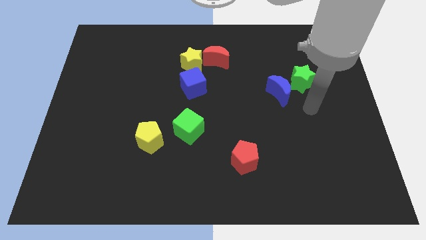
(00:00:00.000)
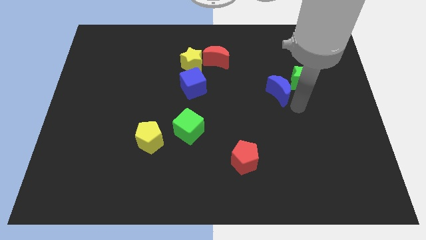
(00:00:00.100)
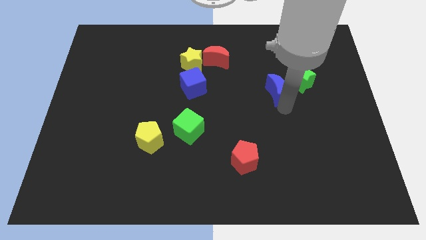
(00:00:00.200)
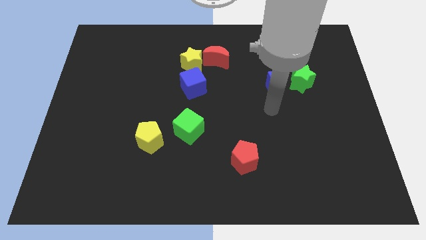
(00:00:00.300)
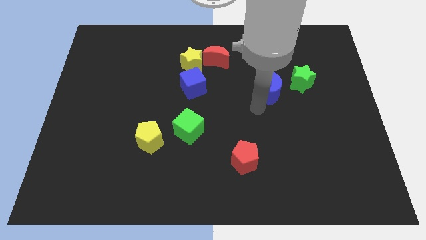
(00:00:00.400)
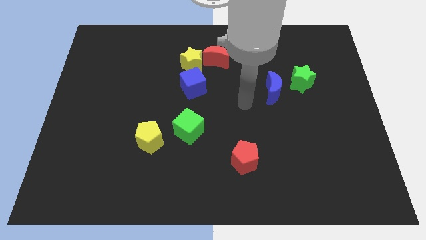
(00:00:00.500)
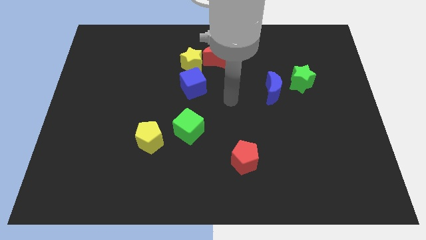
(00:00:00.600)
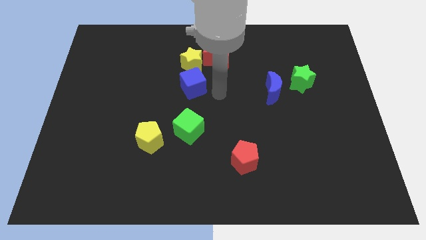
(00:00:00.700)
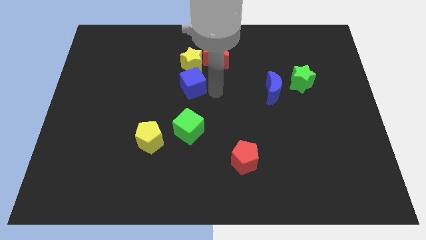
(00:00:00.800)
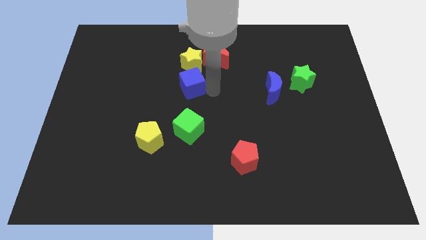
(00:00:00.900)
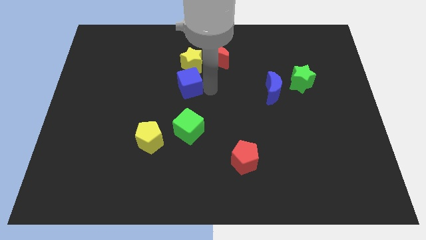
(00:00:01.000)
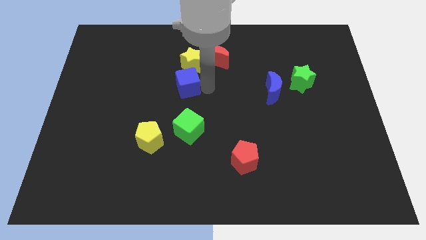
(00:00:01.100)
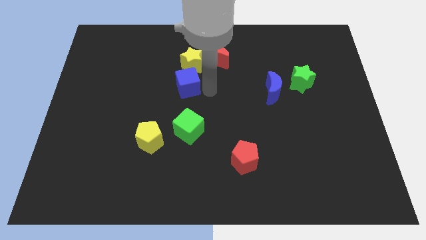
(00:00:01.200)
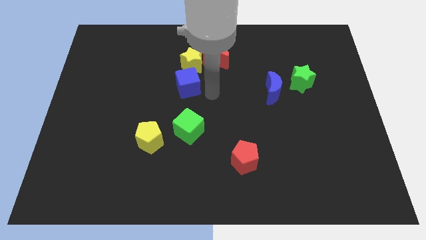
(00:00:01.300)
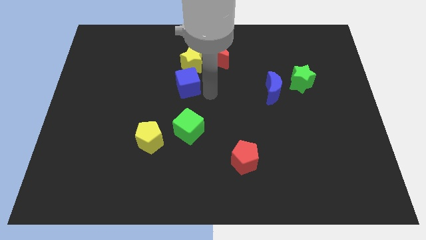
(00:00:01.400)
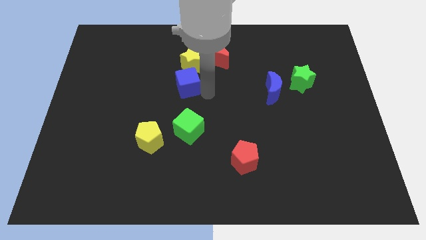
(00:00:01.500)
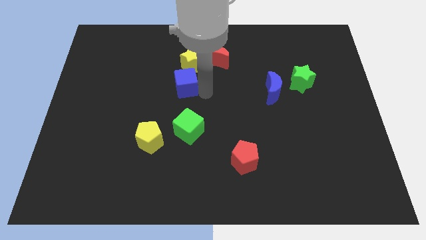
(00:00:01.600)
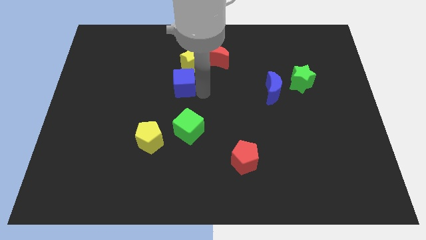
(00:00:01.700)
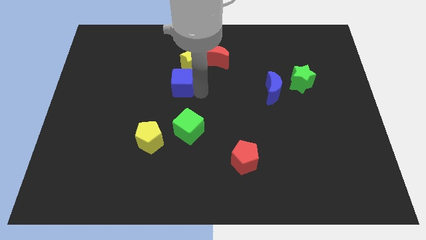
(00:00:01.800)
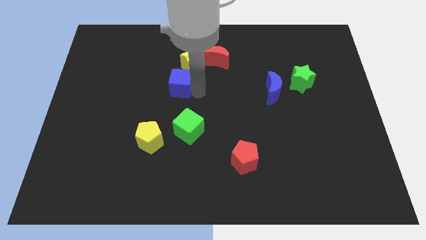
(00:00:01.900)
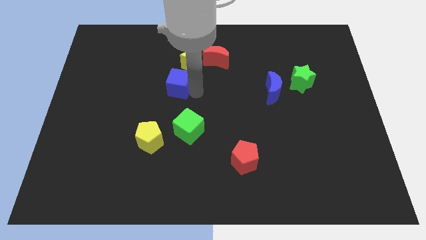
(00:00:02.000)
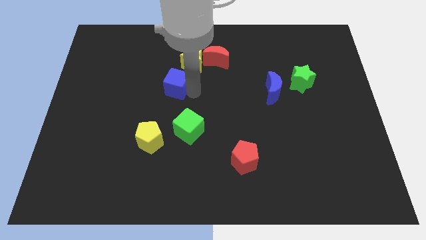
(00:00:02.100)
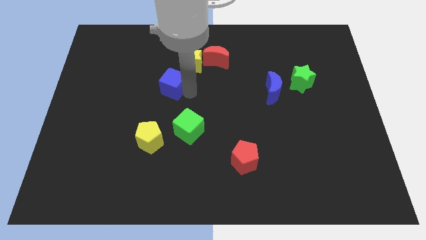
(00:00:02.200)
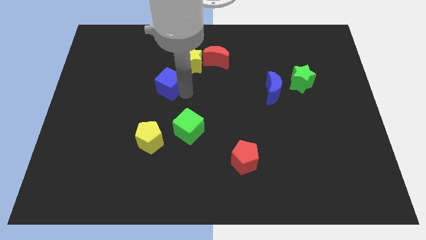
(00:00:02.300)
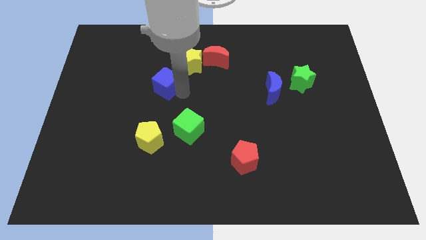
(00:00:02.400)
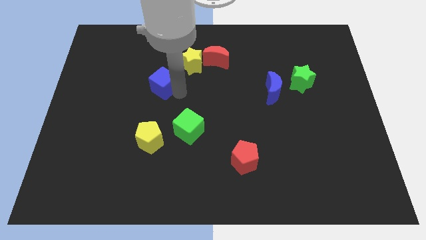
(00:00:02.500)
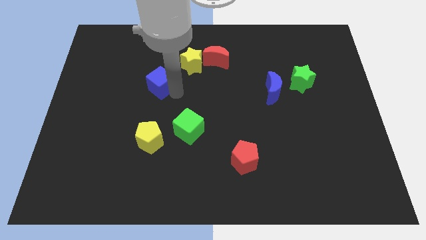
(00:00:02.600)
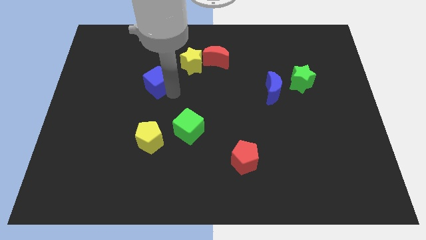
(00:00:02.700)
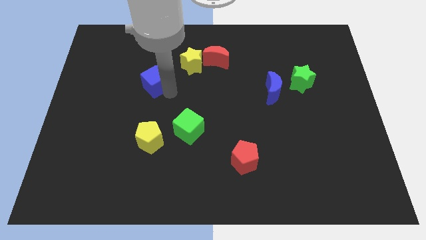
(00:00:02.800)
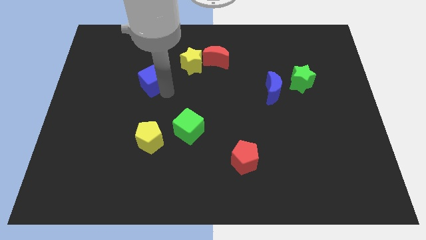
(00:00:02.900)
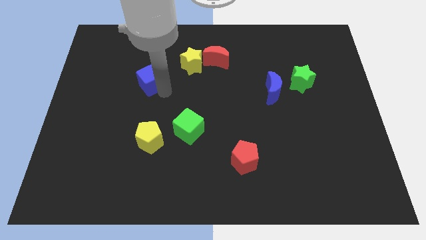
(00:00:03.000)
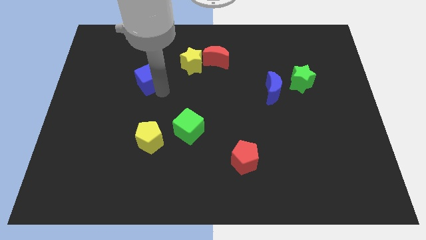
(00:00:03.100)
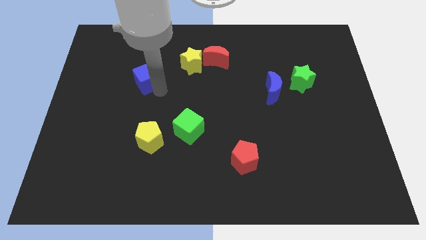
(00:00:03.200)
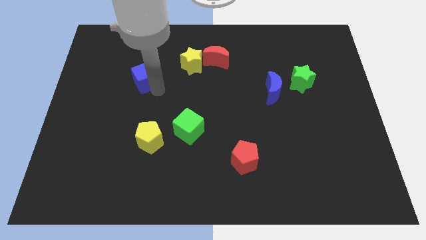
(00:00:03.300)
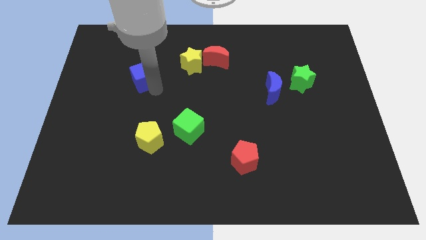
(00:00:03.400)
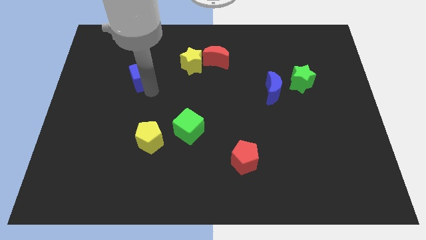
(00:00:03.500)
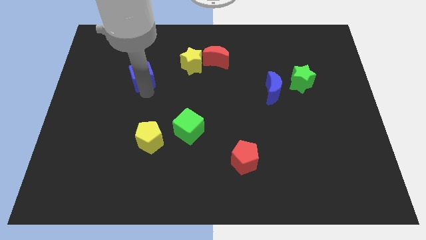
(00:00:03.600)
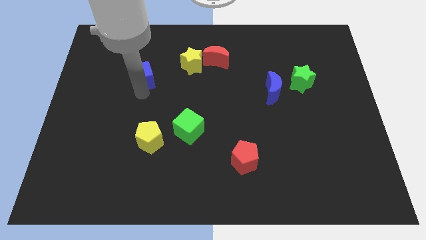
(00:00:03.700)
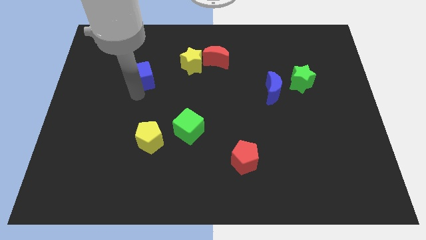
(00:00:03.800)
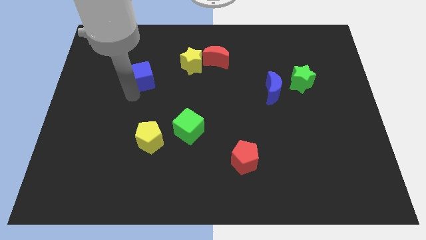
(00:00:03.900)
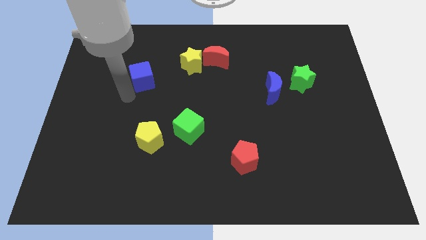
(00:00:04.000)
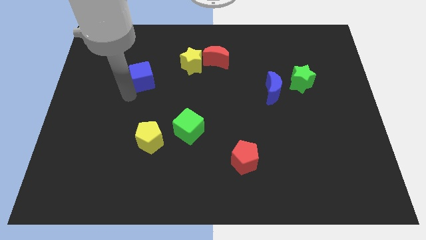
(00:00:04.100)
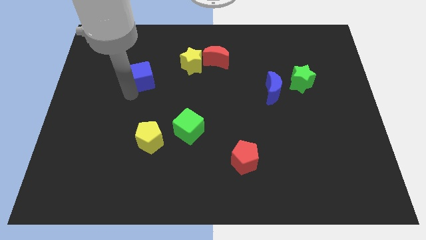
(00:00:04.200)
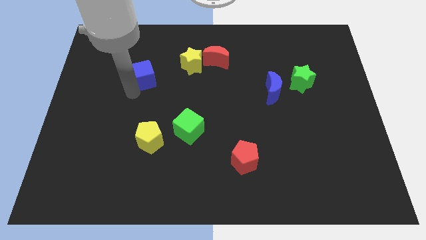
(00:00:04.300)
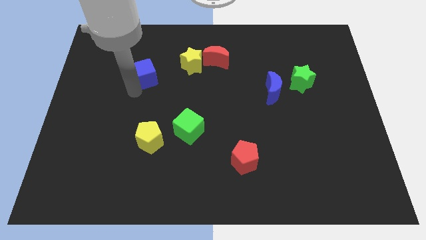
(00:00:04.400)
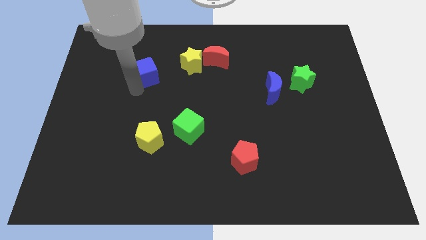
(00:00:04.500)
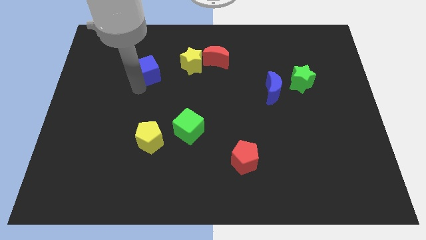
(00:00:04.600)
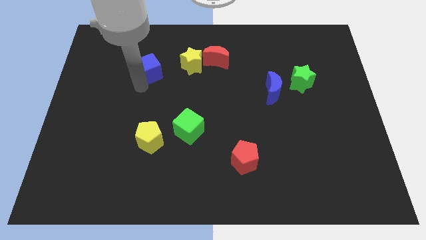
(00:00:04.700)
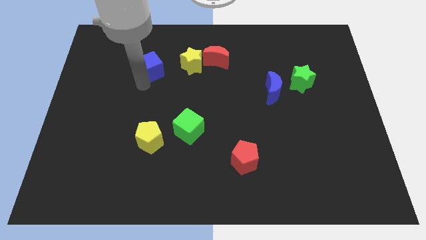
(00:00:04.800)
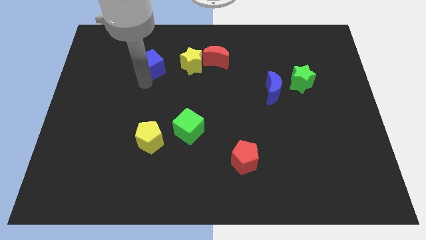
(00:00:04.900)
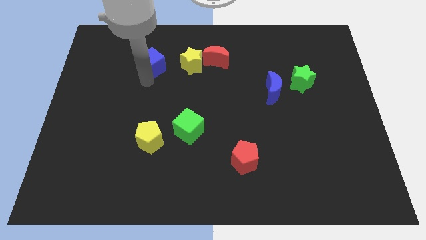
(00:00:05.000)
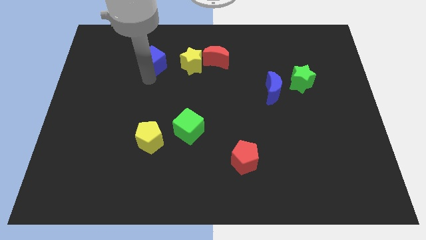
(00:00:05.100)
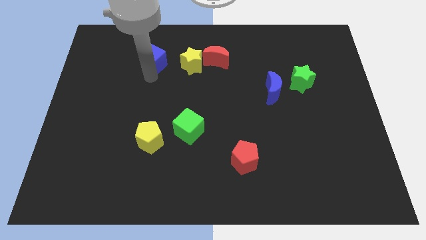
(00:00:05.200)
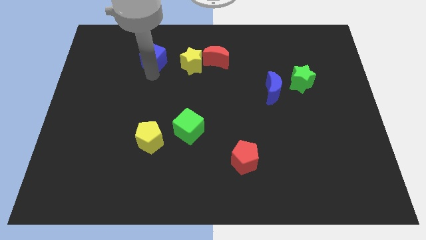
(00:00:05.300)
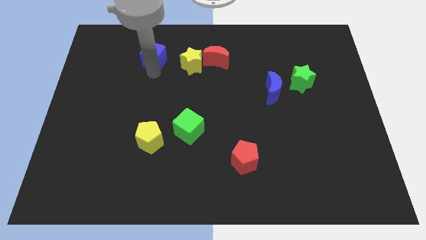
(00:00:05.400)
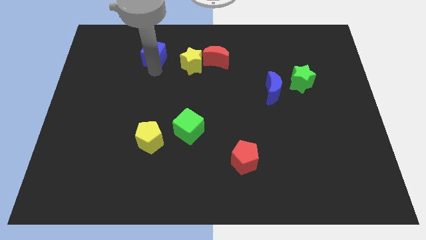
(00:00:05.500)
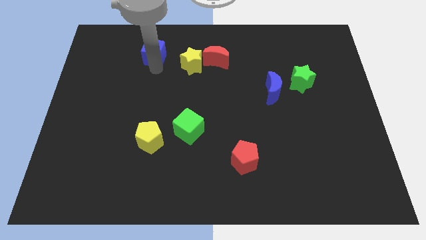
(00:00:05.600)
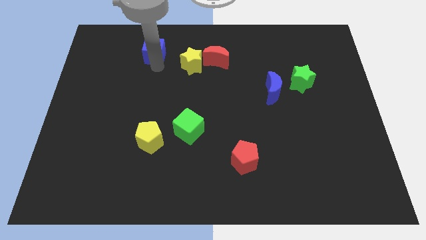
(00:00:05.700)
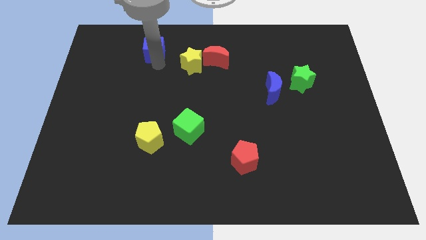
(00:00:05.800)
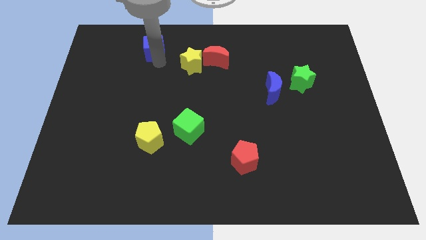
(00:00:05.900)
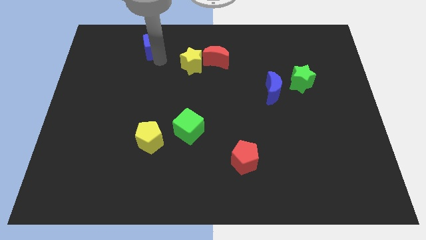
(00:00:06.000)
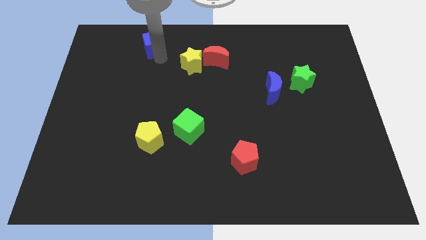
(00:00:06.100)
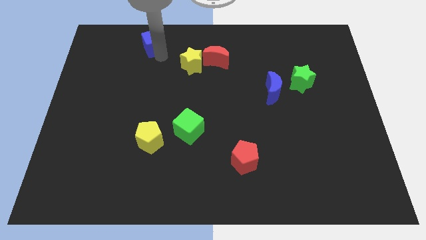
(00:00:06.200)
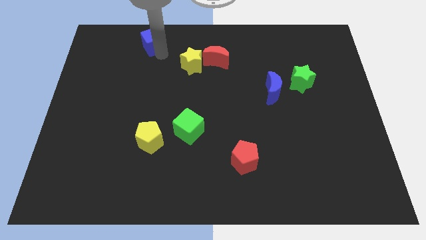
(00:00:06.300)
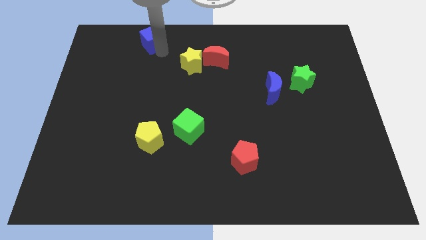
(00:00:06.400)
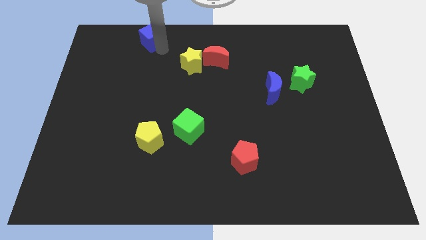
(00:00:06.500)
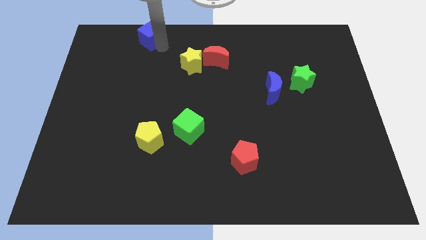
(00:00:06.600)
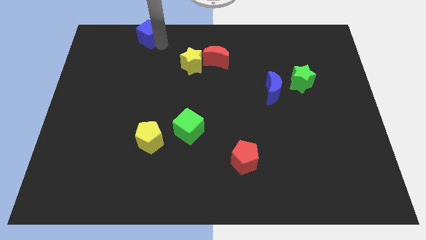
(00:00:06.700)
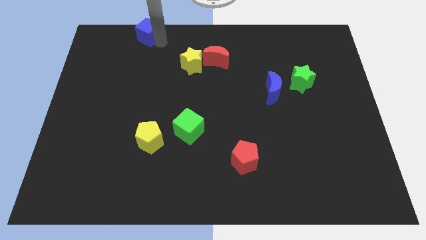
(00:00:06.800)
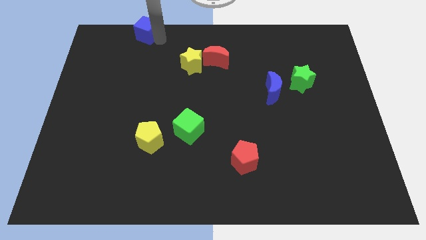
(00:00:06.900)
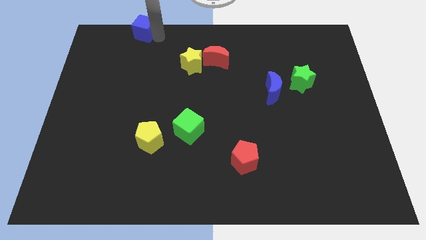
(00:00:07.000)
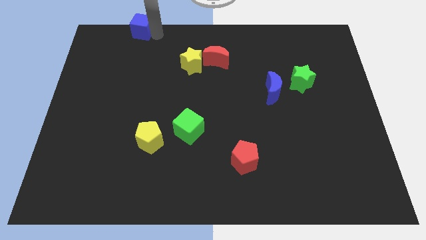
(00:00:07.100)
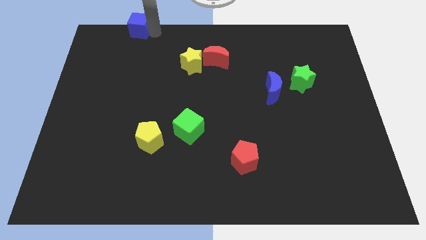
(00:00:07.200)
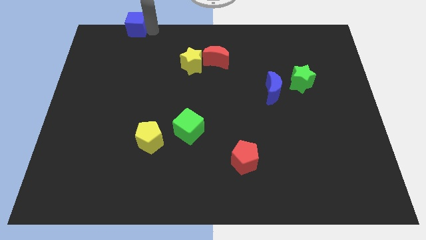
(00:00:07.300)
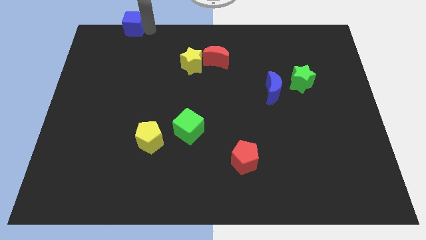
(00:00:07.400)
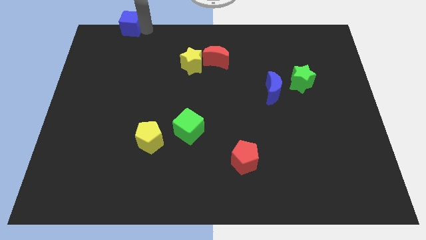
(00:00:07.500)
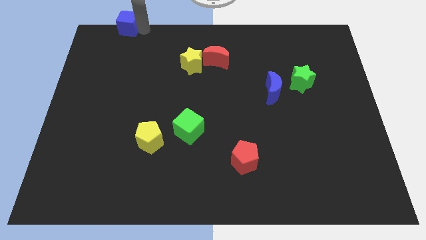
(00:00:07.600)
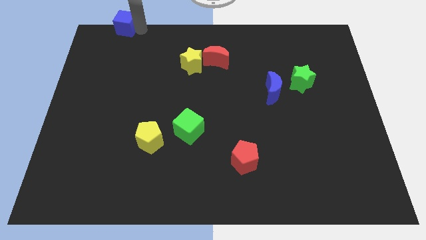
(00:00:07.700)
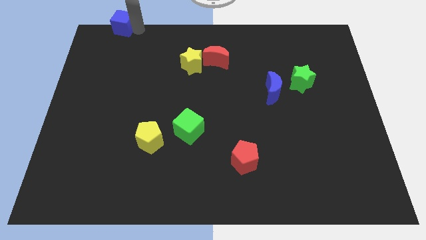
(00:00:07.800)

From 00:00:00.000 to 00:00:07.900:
move the blue cube to the top left
